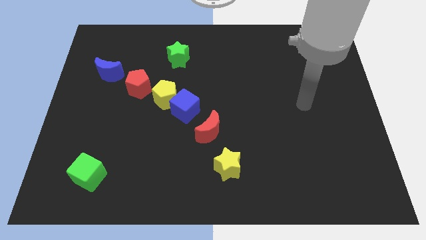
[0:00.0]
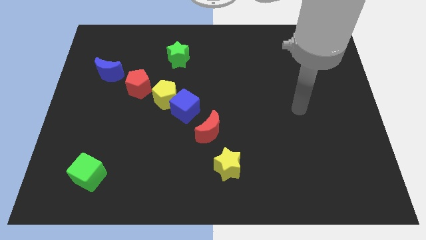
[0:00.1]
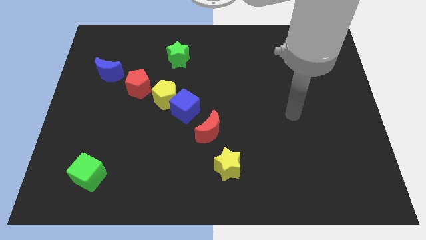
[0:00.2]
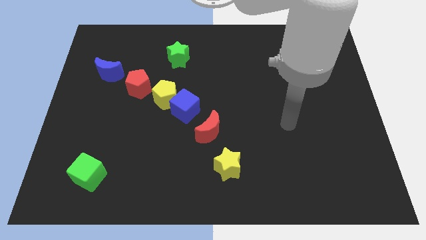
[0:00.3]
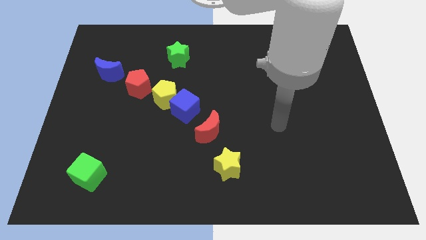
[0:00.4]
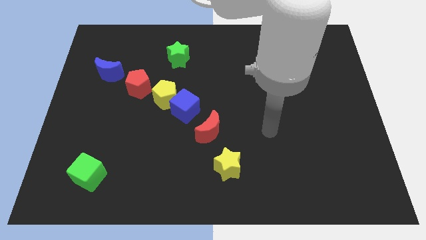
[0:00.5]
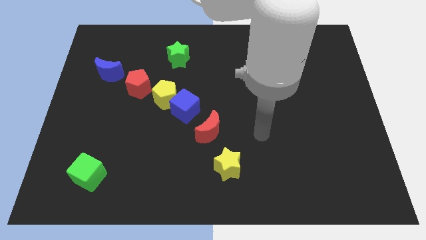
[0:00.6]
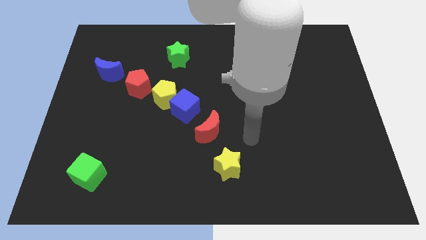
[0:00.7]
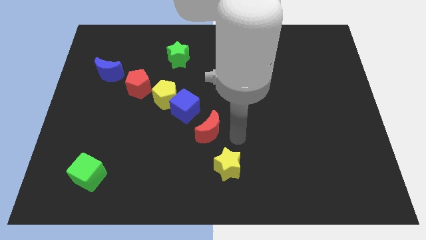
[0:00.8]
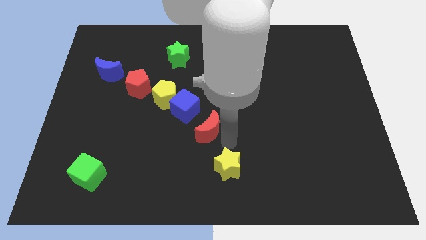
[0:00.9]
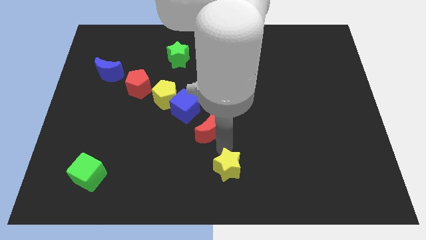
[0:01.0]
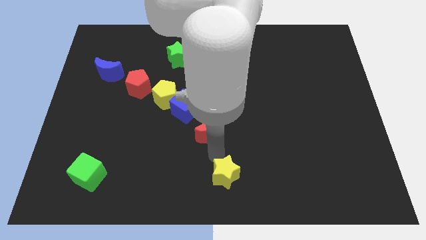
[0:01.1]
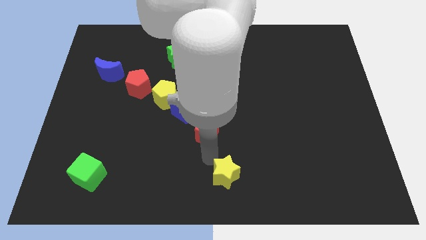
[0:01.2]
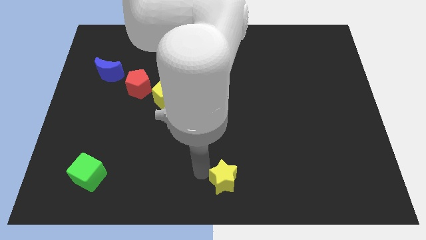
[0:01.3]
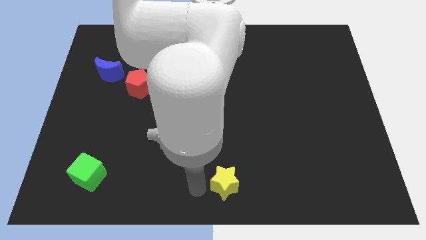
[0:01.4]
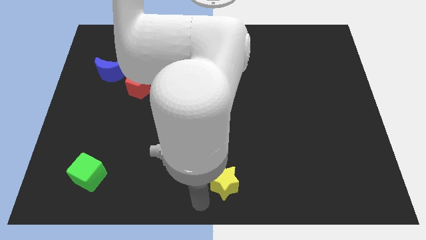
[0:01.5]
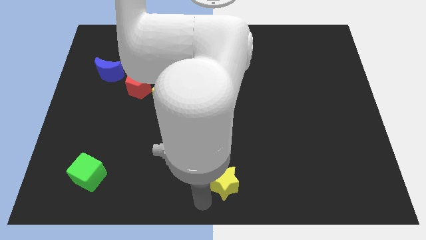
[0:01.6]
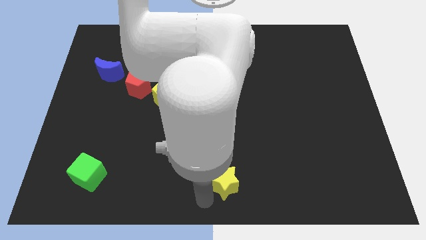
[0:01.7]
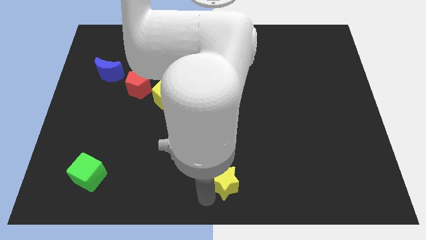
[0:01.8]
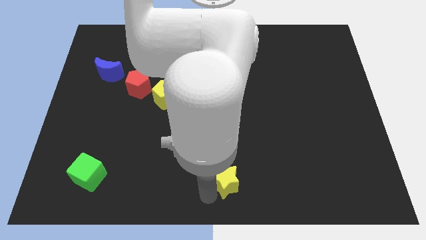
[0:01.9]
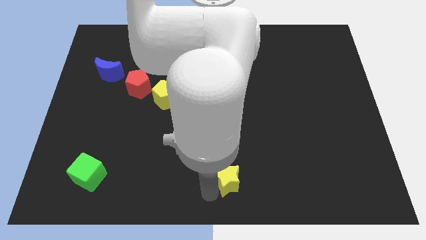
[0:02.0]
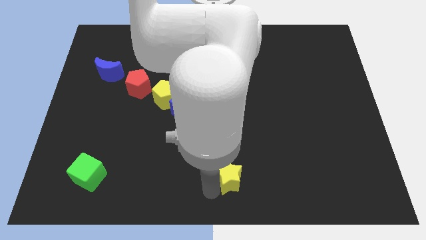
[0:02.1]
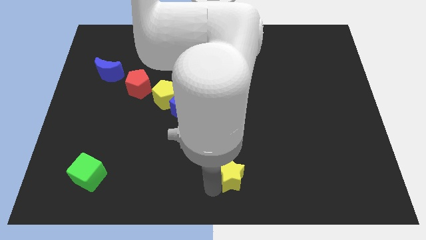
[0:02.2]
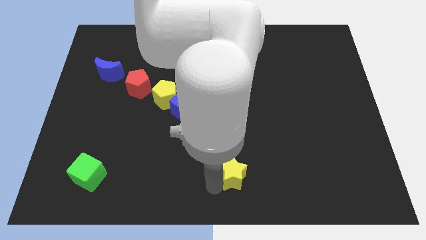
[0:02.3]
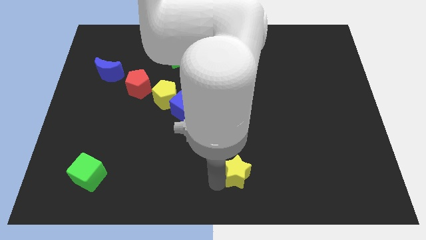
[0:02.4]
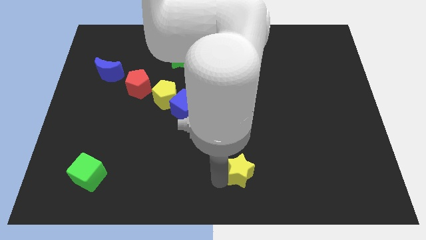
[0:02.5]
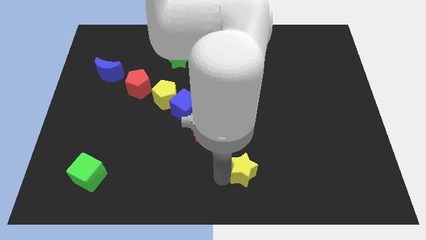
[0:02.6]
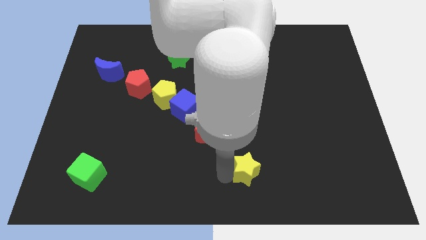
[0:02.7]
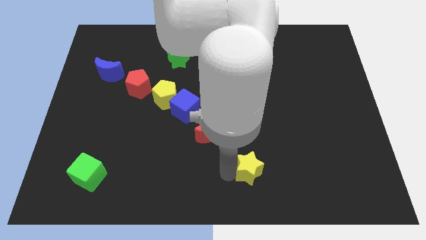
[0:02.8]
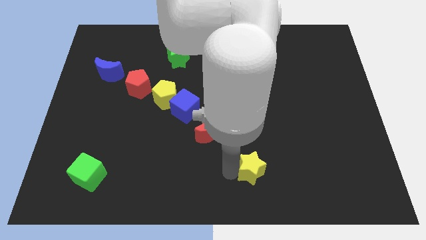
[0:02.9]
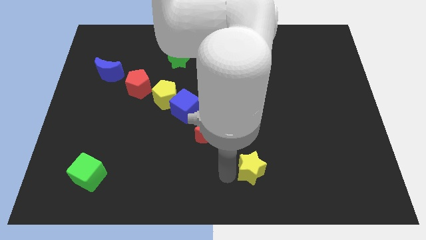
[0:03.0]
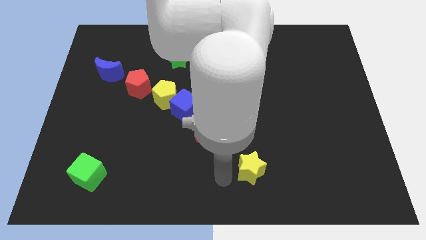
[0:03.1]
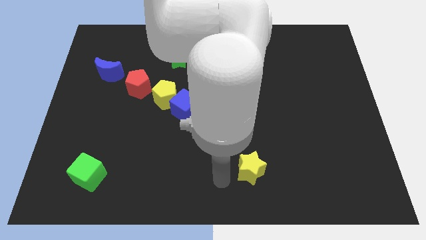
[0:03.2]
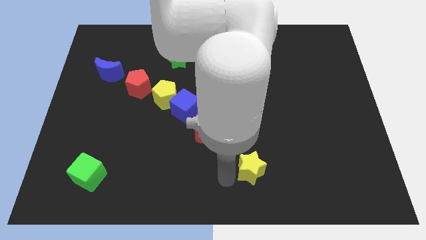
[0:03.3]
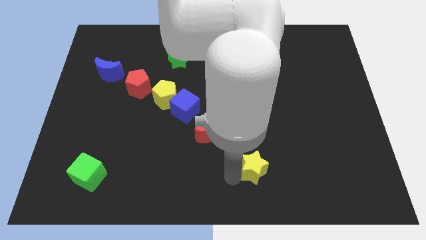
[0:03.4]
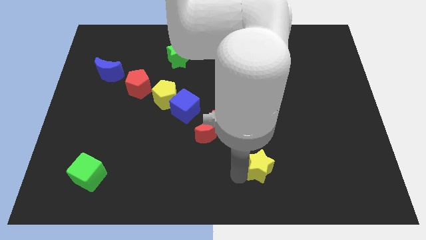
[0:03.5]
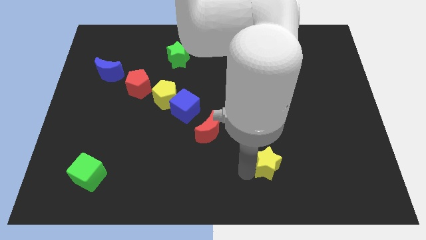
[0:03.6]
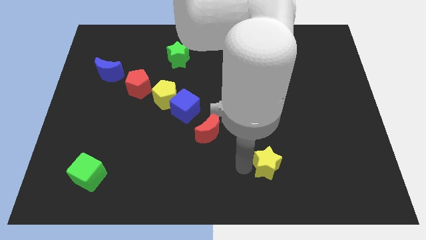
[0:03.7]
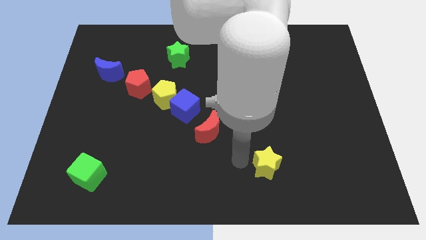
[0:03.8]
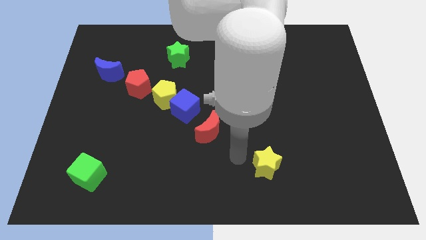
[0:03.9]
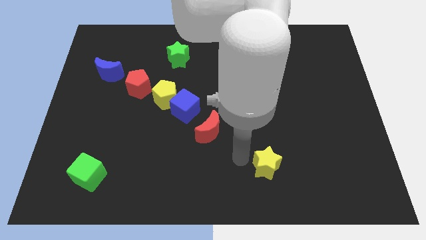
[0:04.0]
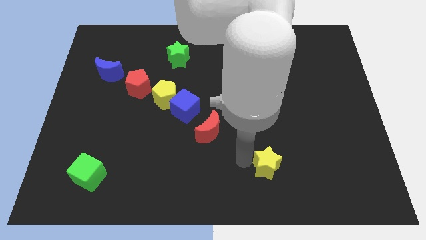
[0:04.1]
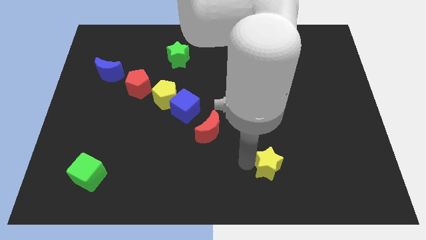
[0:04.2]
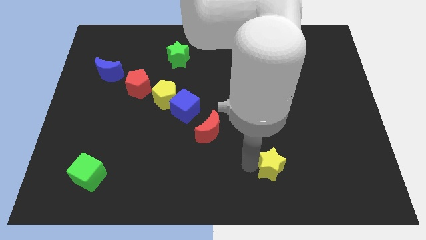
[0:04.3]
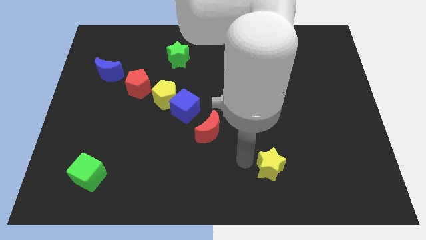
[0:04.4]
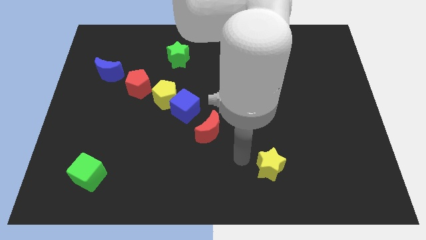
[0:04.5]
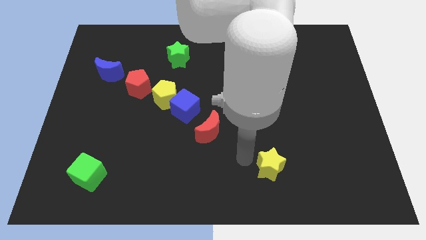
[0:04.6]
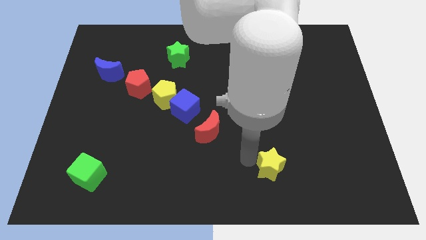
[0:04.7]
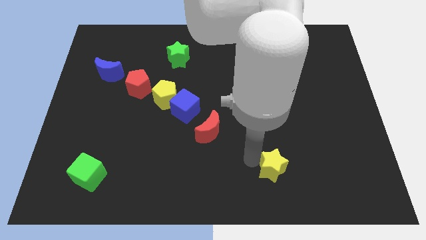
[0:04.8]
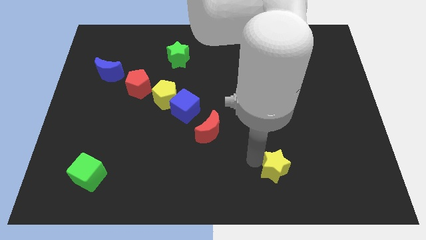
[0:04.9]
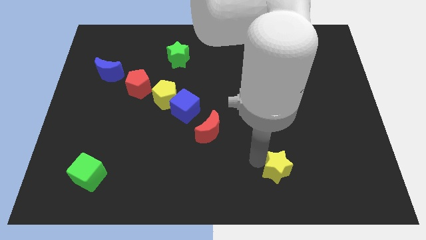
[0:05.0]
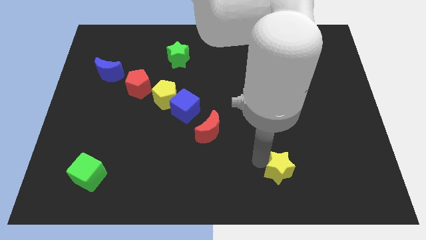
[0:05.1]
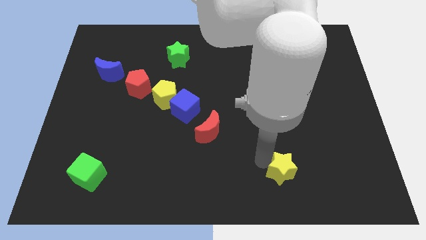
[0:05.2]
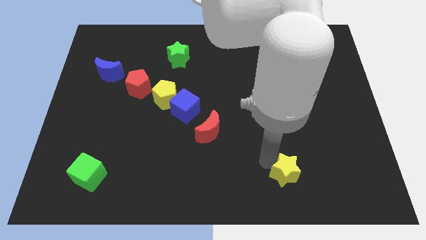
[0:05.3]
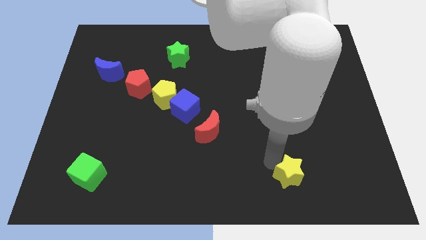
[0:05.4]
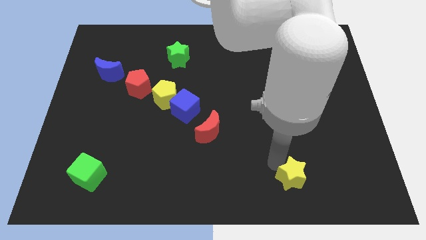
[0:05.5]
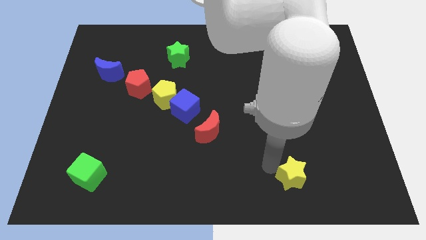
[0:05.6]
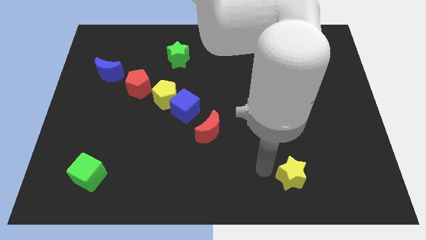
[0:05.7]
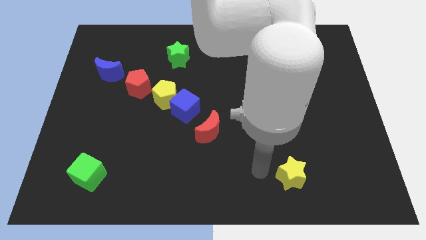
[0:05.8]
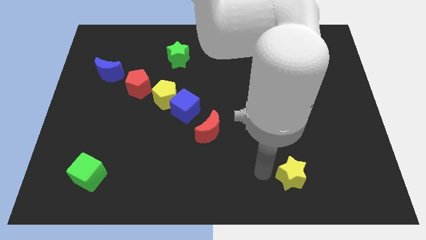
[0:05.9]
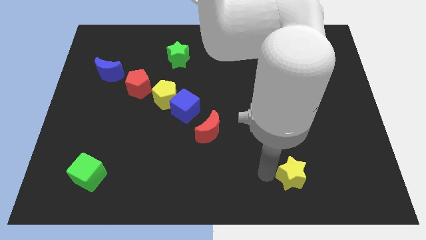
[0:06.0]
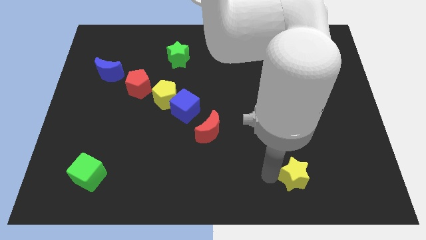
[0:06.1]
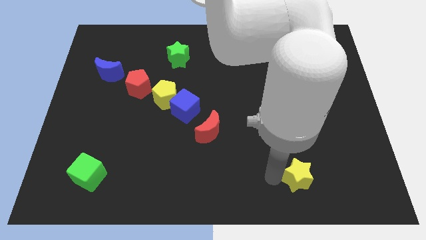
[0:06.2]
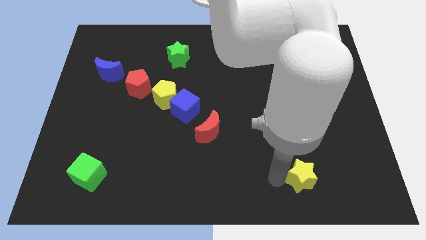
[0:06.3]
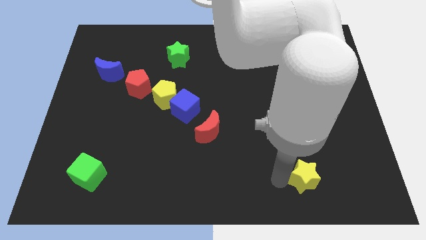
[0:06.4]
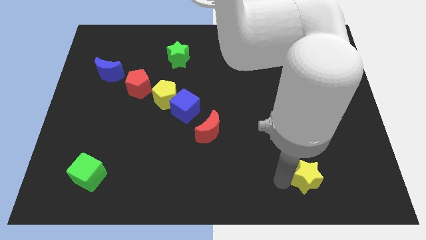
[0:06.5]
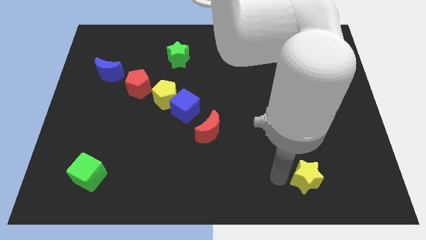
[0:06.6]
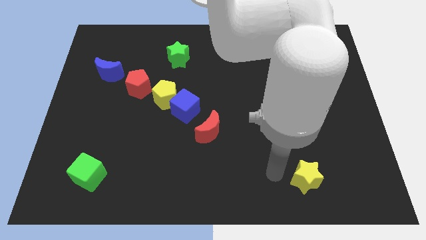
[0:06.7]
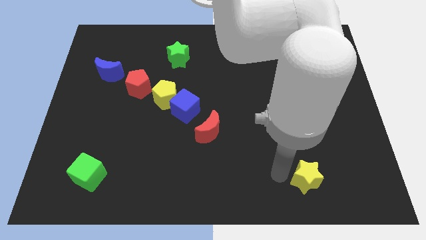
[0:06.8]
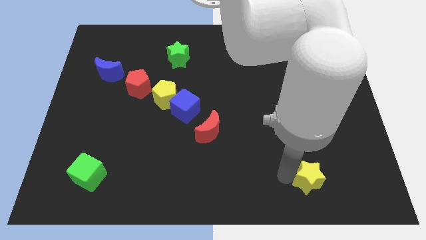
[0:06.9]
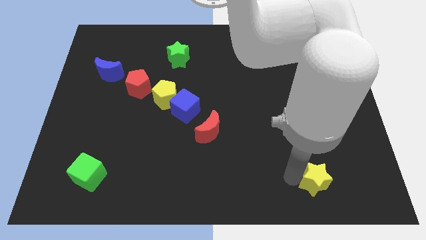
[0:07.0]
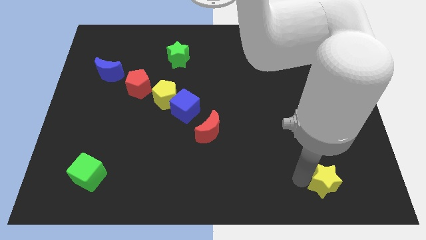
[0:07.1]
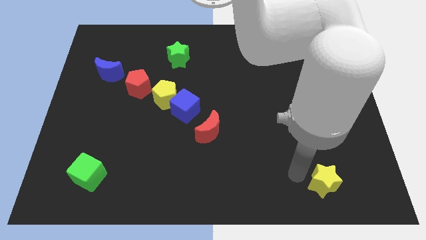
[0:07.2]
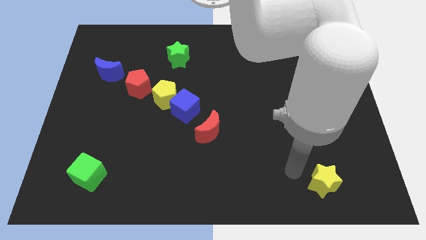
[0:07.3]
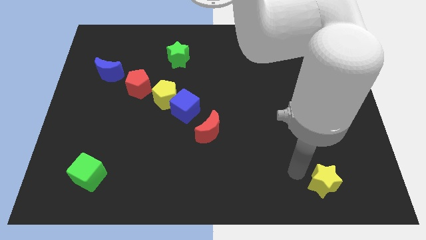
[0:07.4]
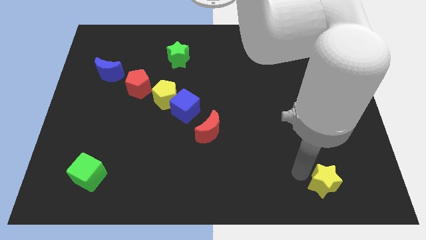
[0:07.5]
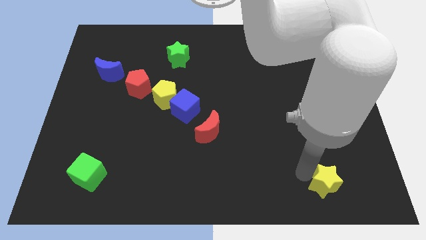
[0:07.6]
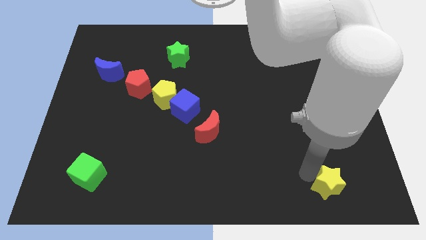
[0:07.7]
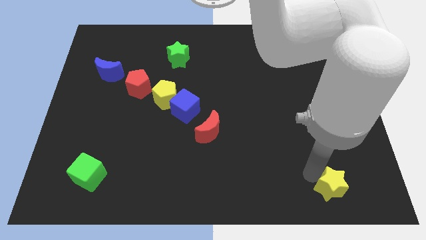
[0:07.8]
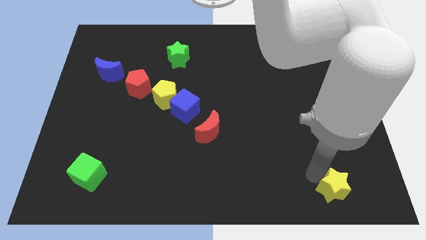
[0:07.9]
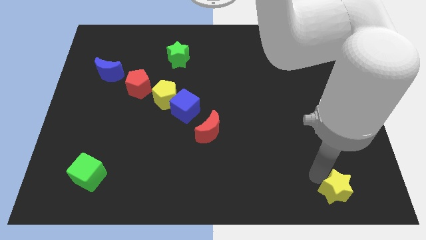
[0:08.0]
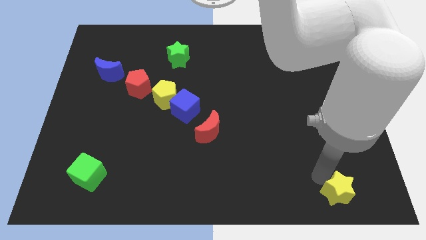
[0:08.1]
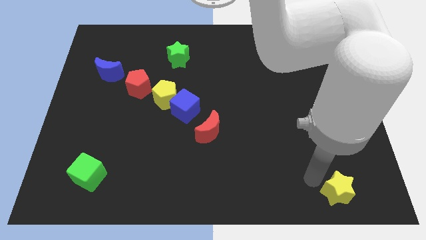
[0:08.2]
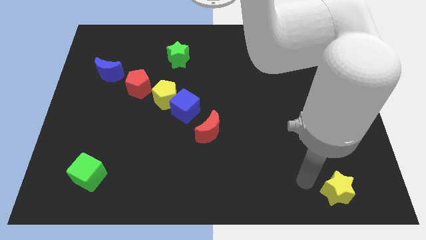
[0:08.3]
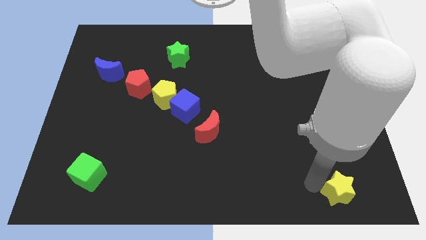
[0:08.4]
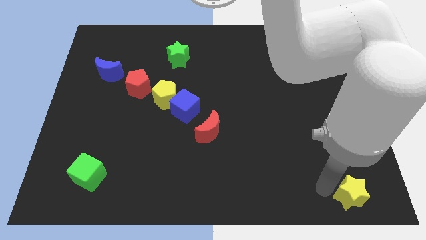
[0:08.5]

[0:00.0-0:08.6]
move the yellow star to the bottom right of the board
